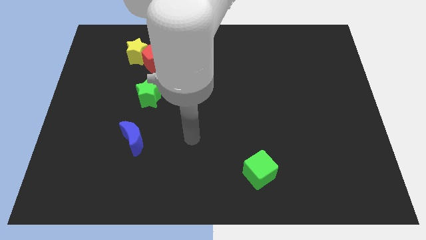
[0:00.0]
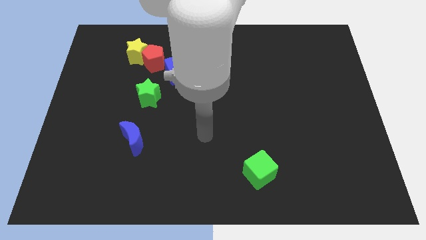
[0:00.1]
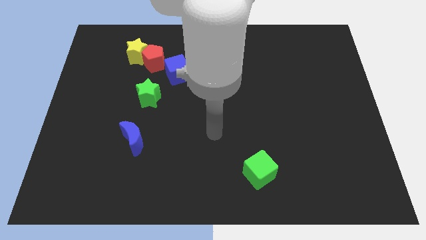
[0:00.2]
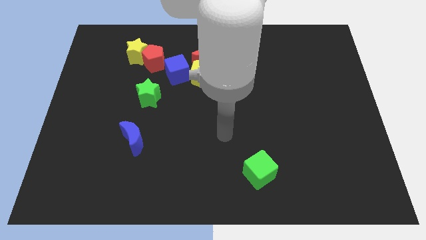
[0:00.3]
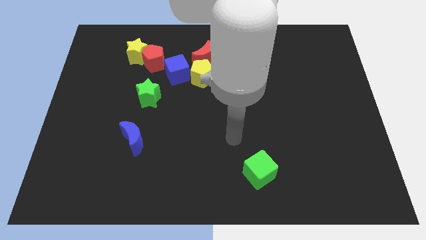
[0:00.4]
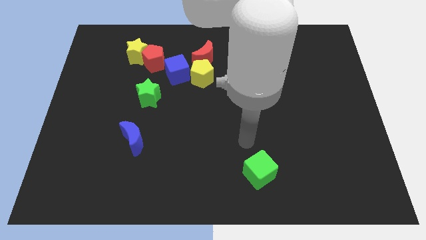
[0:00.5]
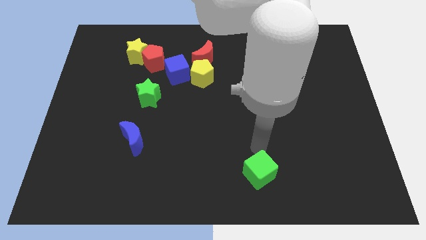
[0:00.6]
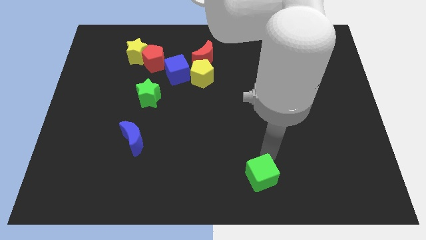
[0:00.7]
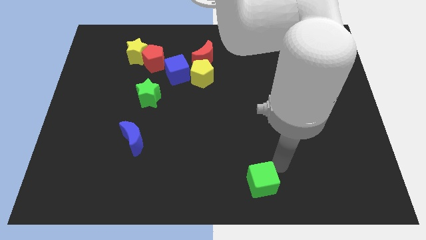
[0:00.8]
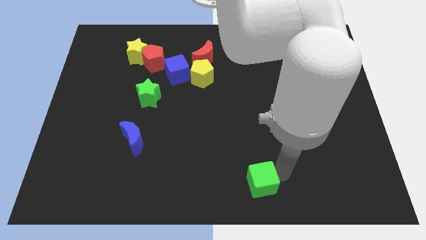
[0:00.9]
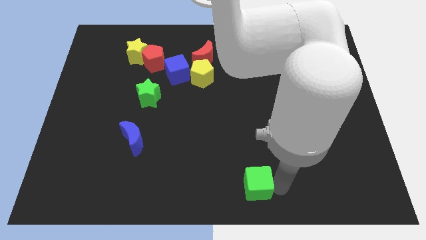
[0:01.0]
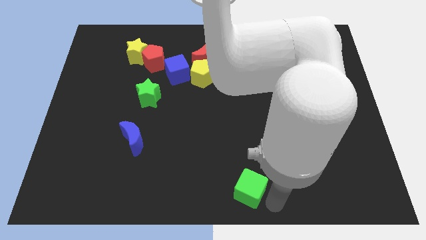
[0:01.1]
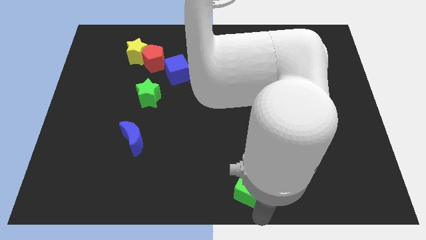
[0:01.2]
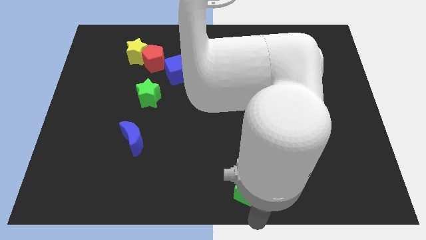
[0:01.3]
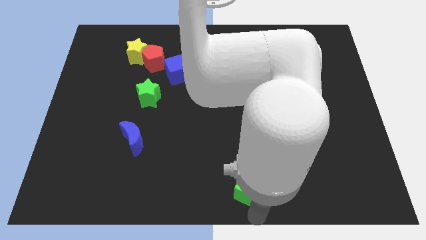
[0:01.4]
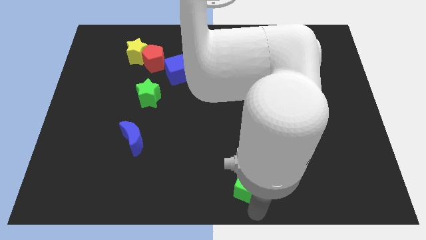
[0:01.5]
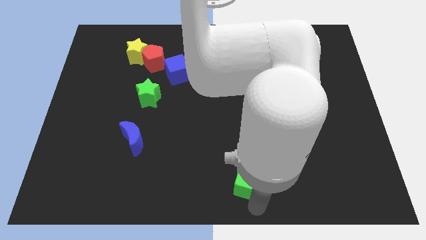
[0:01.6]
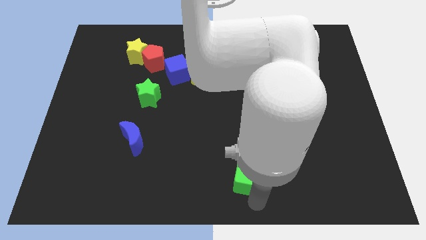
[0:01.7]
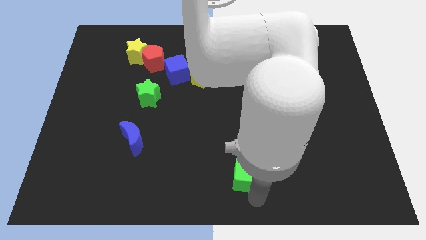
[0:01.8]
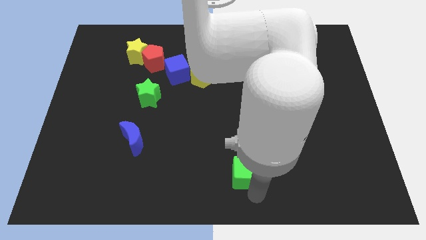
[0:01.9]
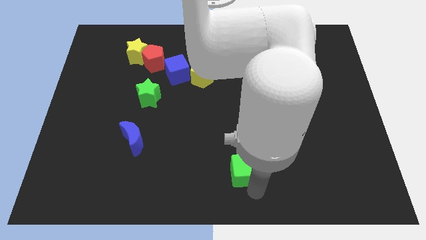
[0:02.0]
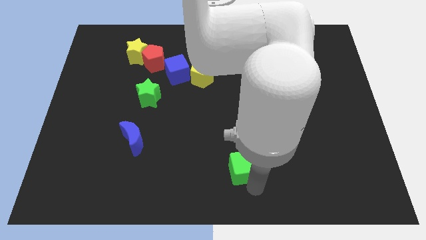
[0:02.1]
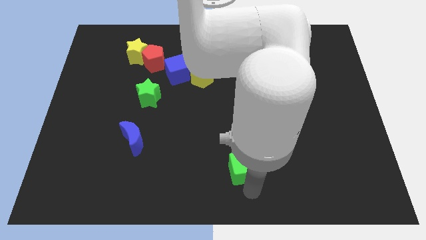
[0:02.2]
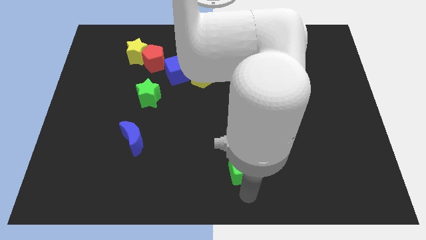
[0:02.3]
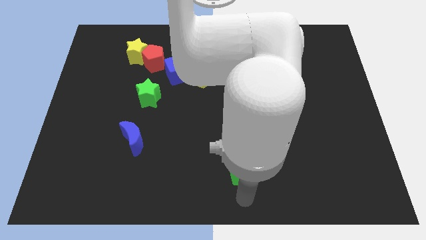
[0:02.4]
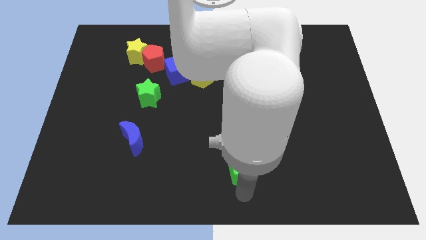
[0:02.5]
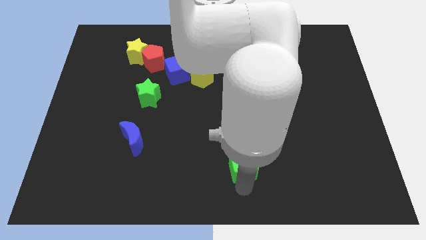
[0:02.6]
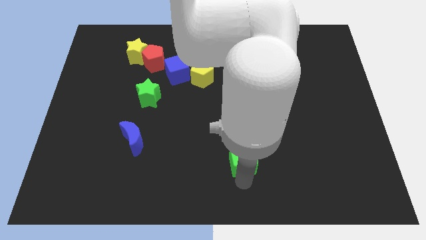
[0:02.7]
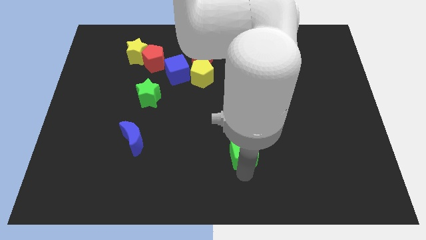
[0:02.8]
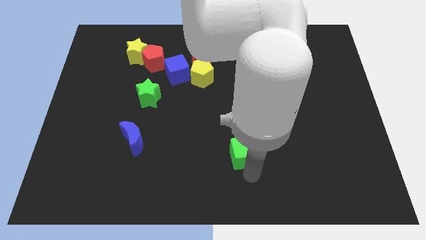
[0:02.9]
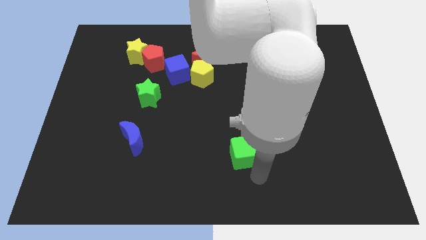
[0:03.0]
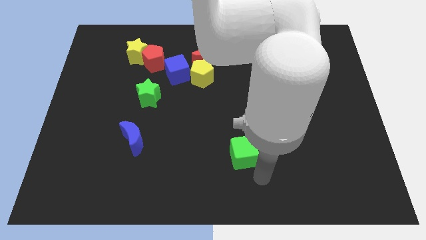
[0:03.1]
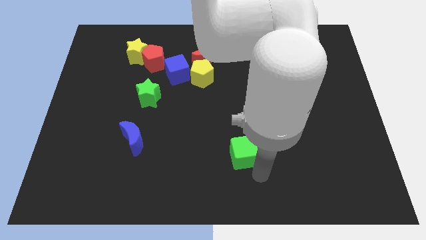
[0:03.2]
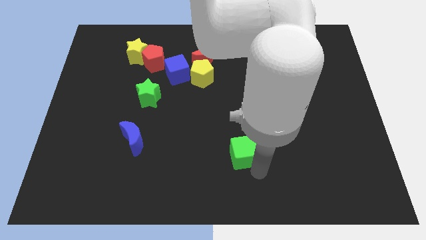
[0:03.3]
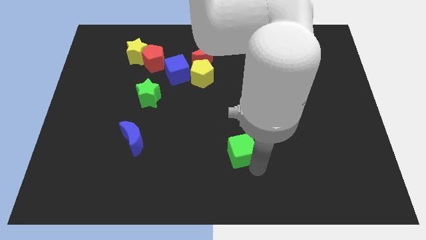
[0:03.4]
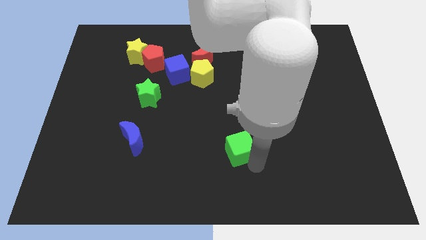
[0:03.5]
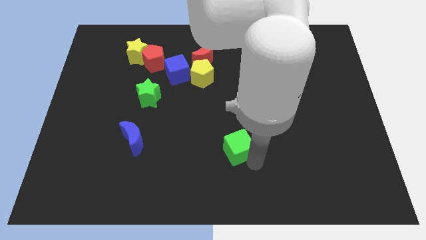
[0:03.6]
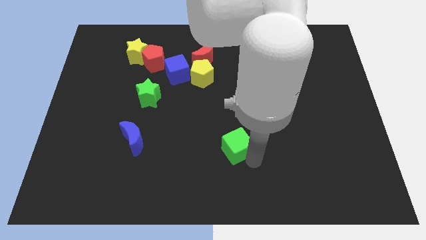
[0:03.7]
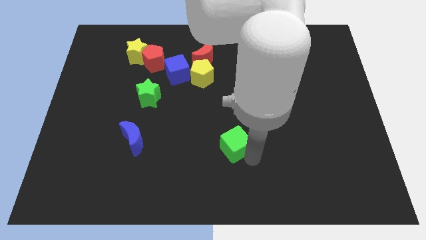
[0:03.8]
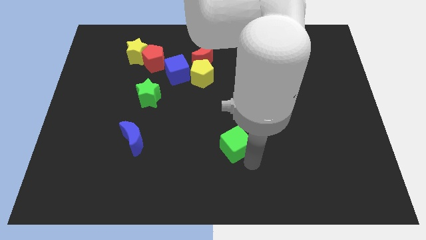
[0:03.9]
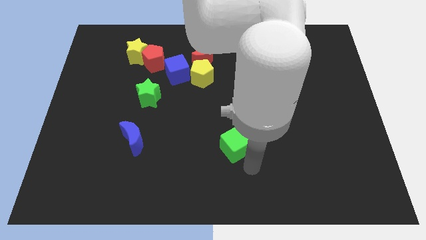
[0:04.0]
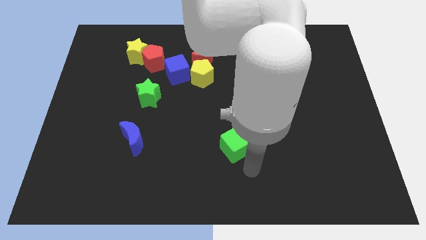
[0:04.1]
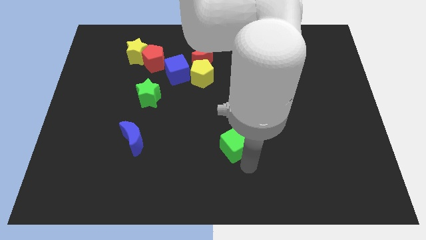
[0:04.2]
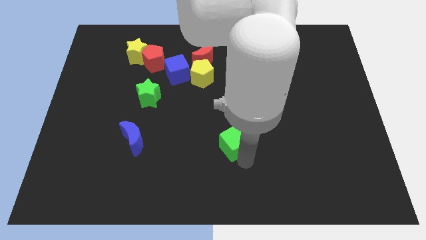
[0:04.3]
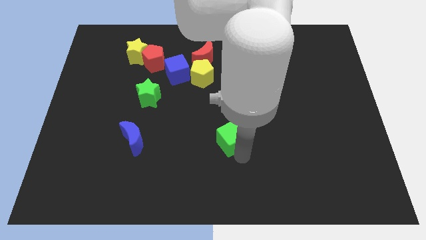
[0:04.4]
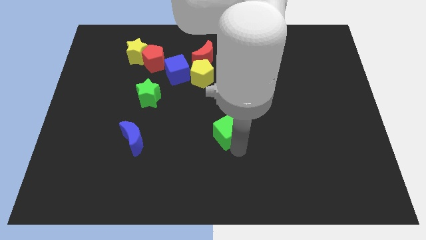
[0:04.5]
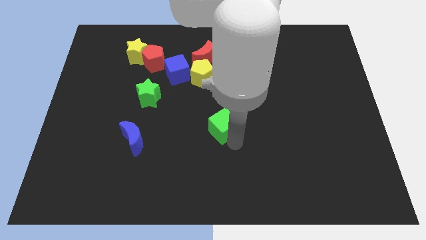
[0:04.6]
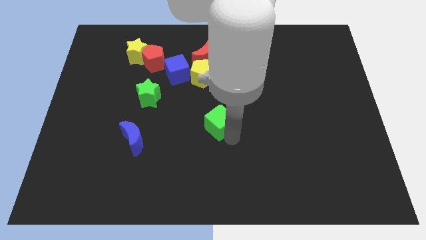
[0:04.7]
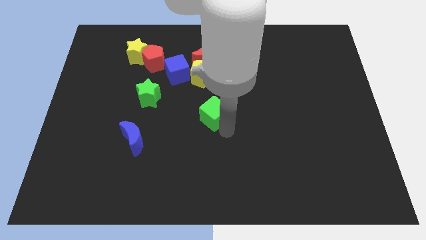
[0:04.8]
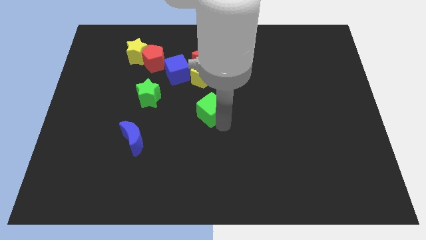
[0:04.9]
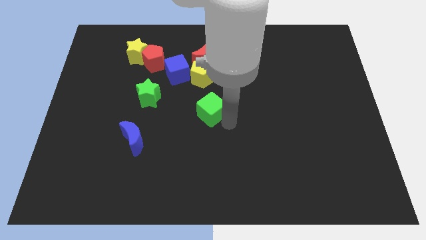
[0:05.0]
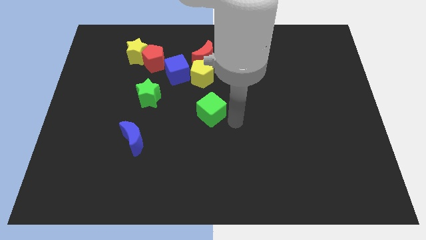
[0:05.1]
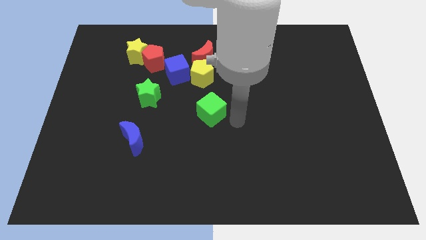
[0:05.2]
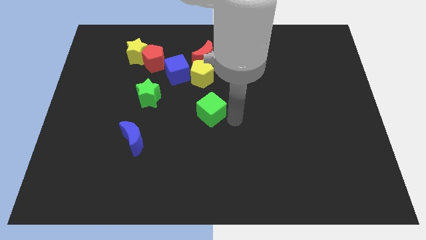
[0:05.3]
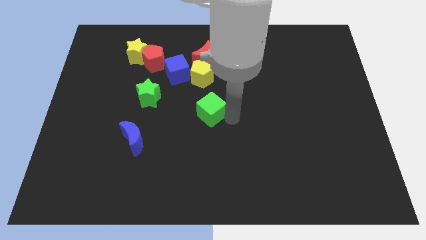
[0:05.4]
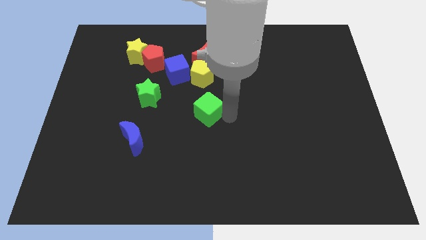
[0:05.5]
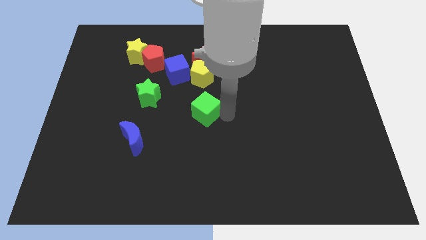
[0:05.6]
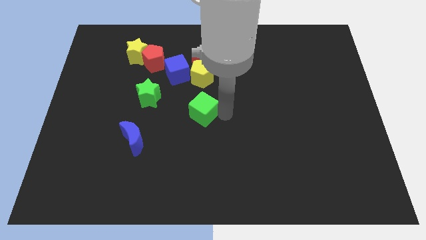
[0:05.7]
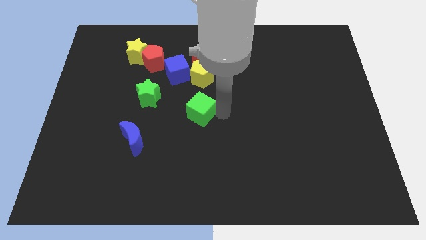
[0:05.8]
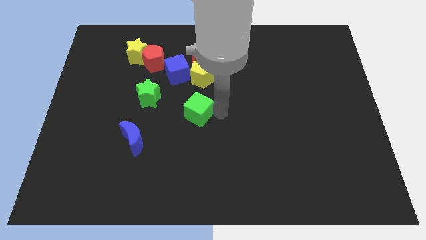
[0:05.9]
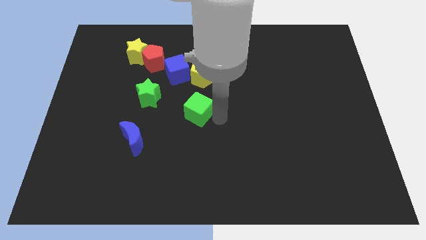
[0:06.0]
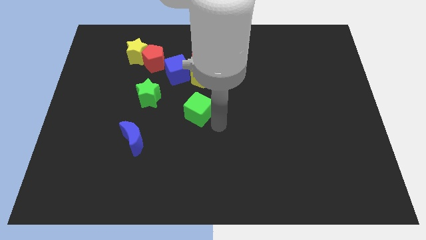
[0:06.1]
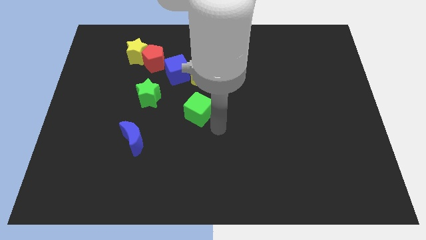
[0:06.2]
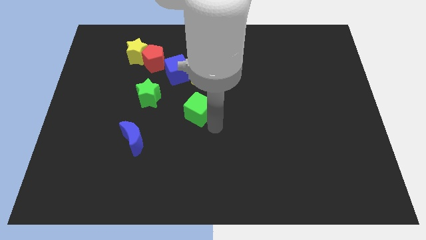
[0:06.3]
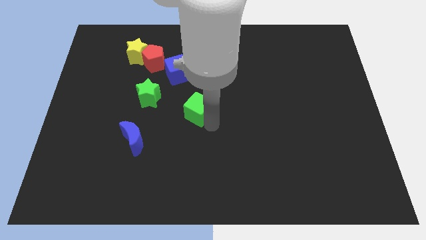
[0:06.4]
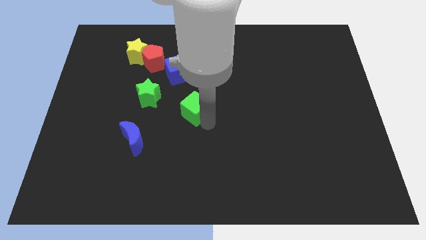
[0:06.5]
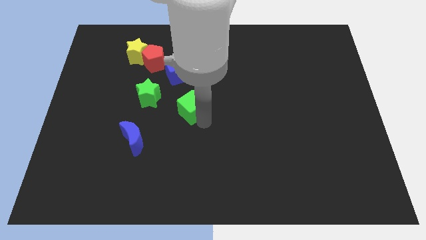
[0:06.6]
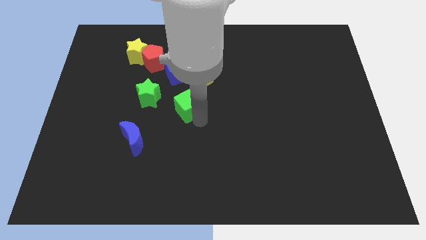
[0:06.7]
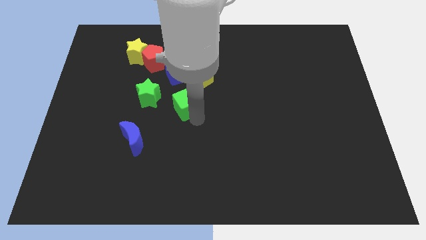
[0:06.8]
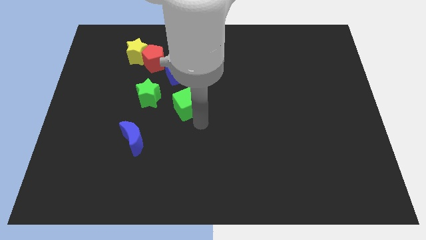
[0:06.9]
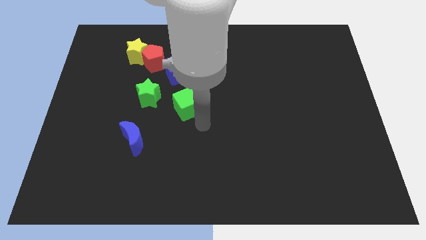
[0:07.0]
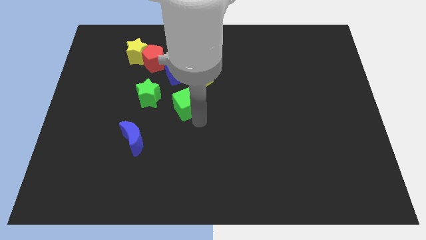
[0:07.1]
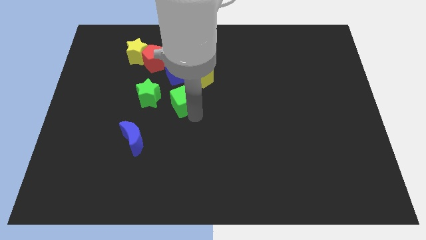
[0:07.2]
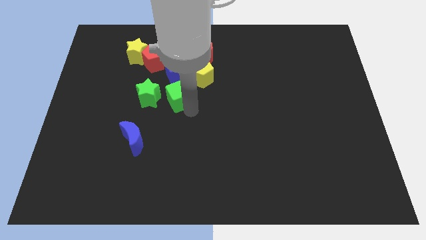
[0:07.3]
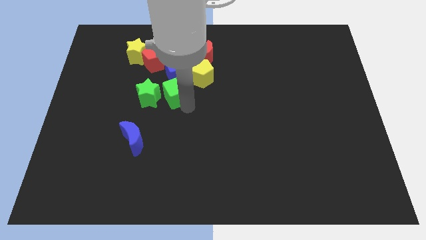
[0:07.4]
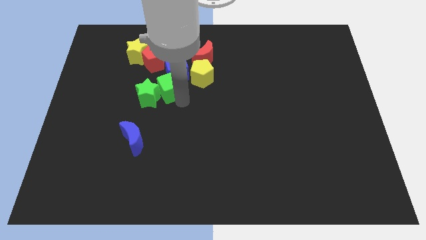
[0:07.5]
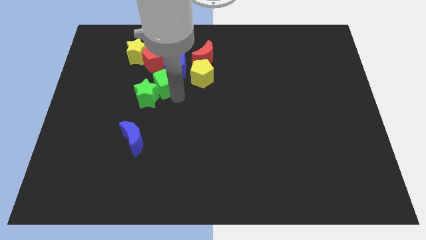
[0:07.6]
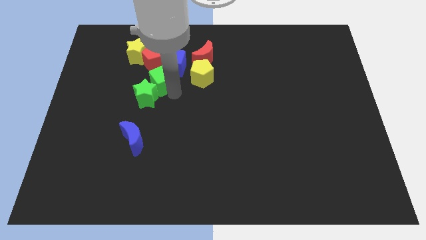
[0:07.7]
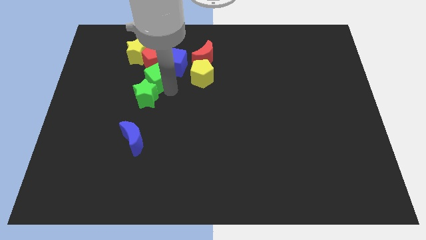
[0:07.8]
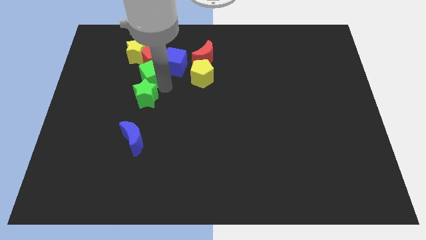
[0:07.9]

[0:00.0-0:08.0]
slide the green cube to the red pentagon
